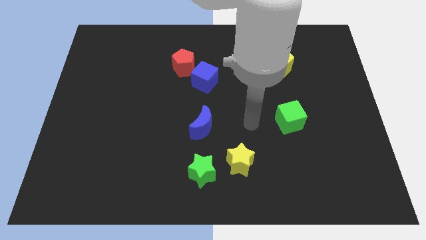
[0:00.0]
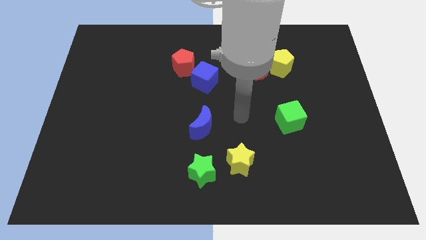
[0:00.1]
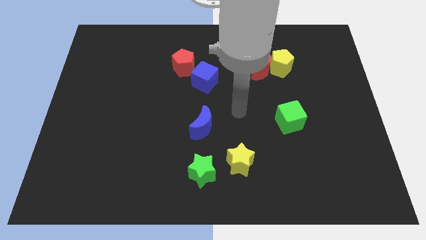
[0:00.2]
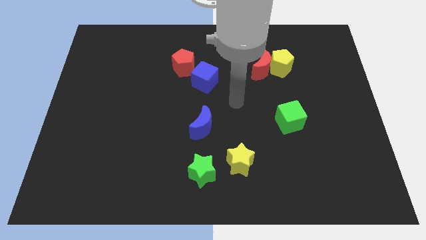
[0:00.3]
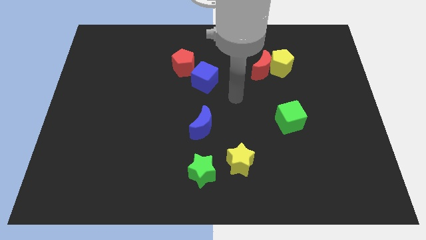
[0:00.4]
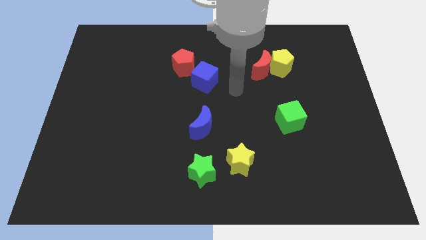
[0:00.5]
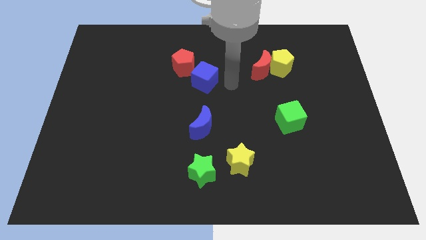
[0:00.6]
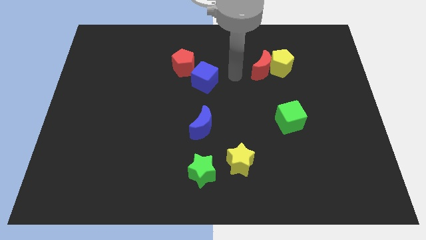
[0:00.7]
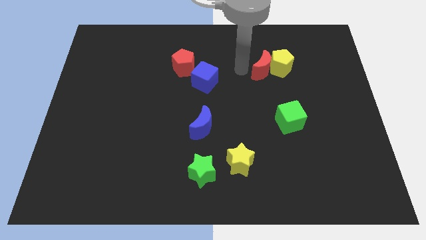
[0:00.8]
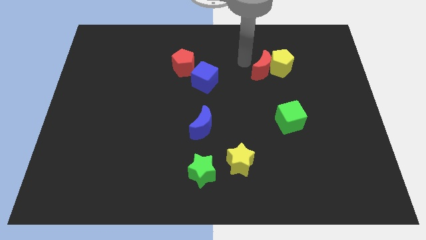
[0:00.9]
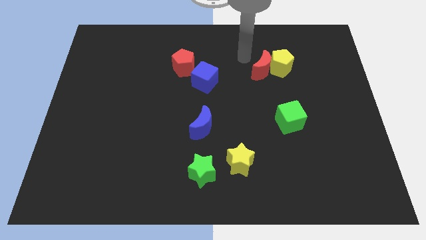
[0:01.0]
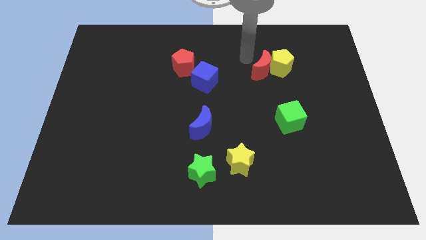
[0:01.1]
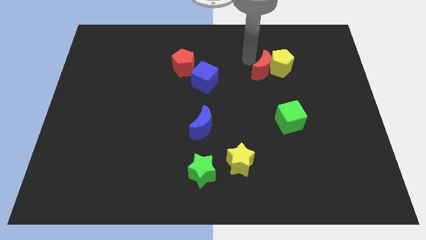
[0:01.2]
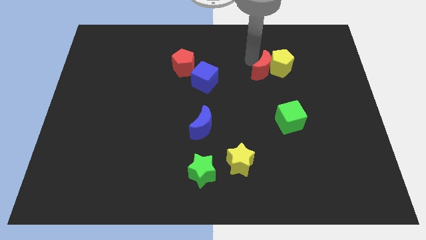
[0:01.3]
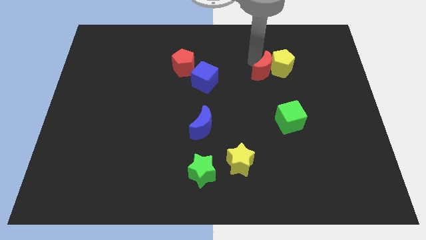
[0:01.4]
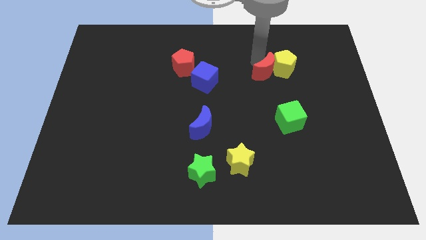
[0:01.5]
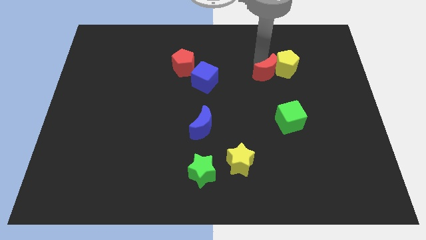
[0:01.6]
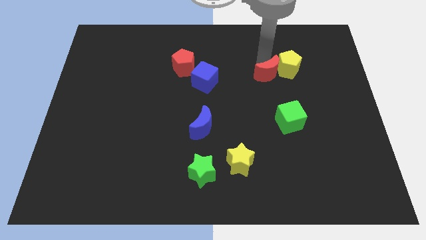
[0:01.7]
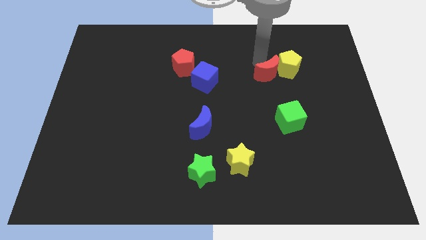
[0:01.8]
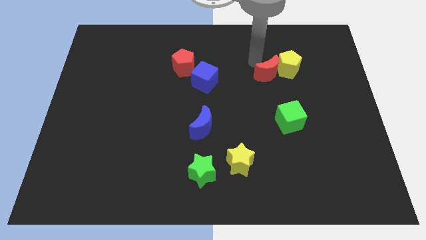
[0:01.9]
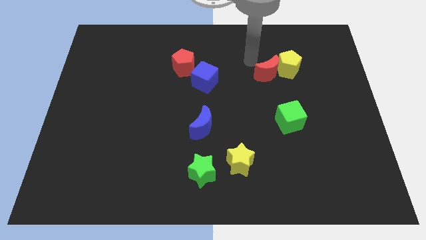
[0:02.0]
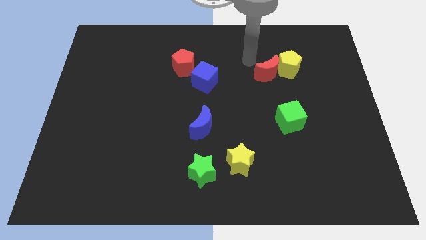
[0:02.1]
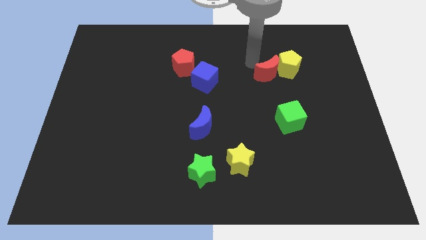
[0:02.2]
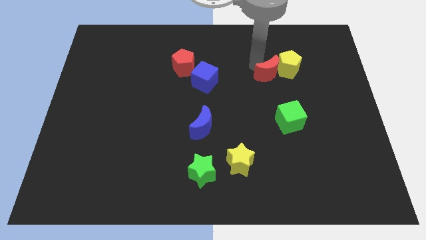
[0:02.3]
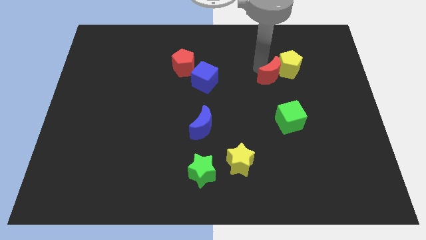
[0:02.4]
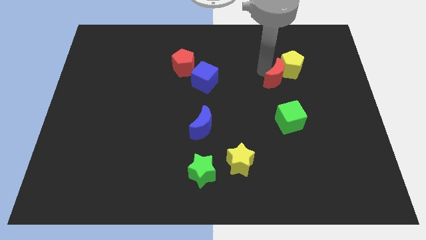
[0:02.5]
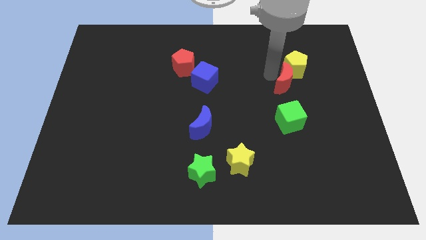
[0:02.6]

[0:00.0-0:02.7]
push the red moon down and right diagonally a little

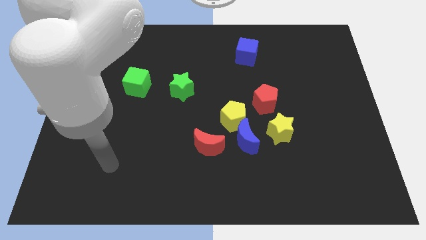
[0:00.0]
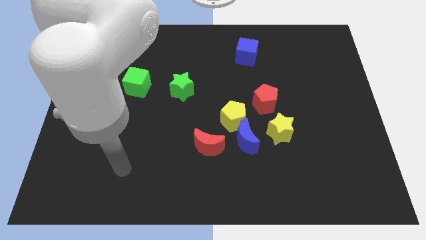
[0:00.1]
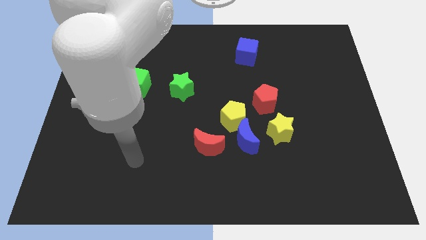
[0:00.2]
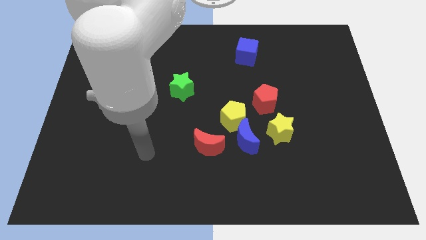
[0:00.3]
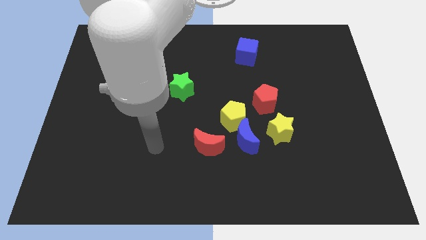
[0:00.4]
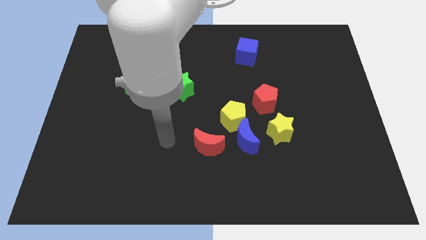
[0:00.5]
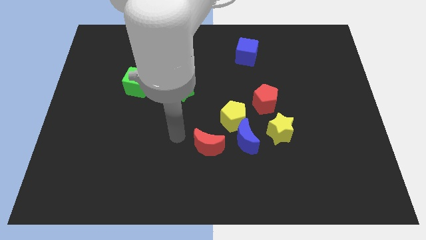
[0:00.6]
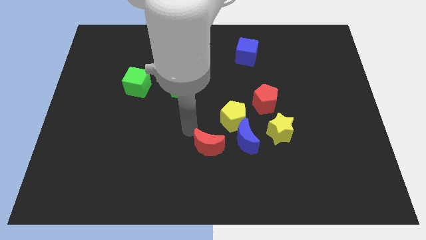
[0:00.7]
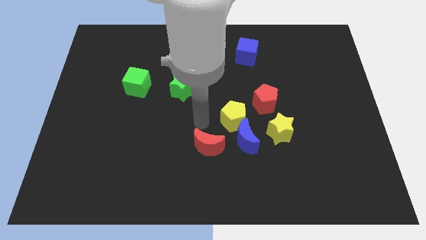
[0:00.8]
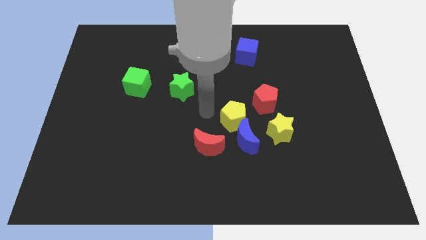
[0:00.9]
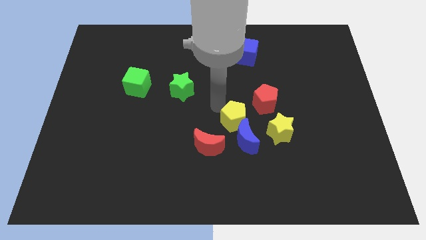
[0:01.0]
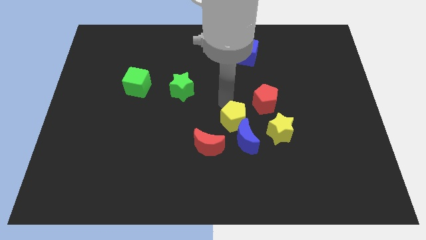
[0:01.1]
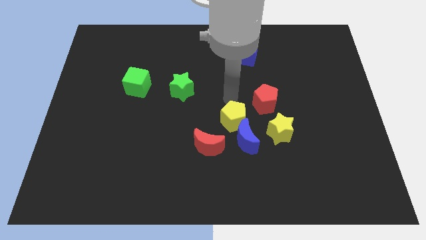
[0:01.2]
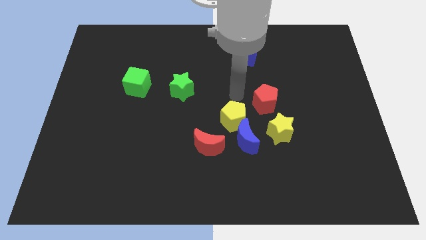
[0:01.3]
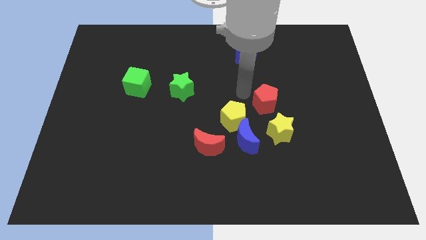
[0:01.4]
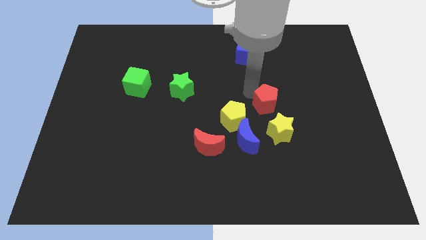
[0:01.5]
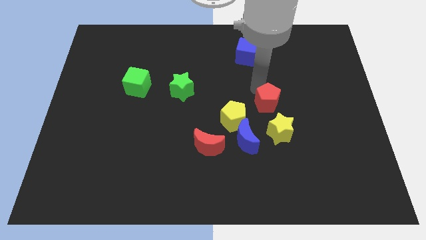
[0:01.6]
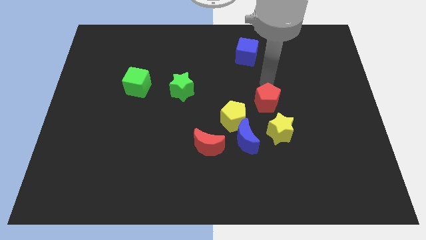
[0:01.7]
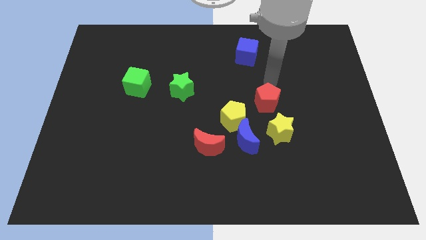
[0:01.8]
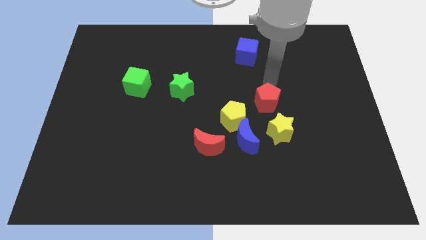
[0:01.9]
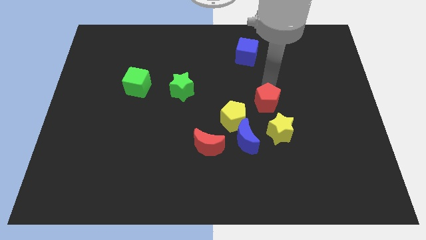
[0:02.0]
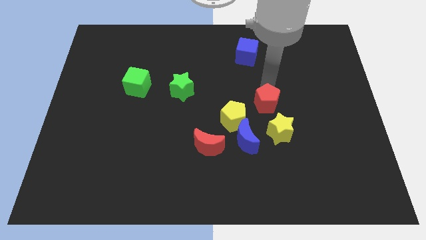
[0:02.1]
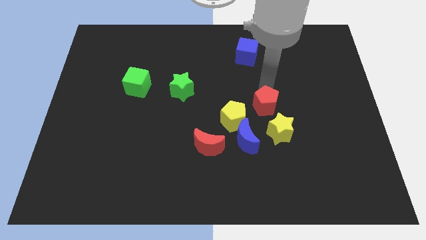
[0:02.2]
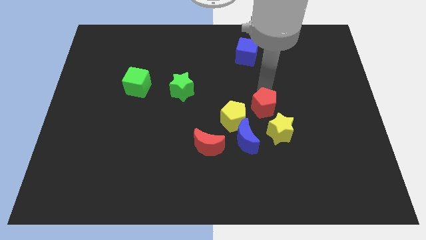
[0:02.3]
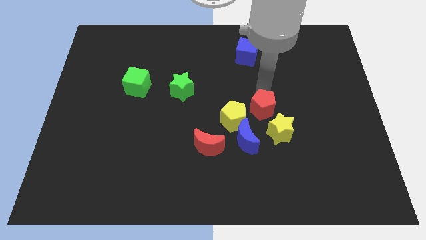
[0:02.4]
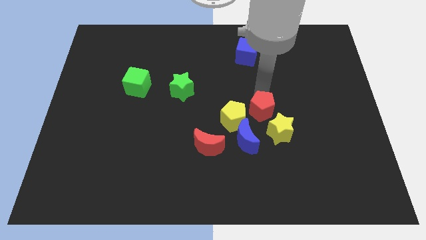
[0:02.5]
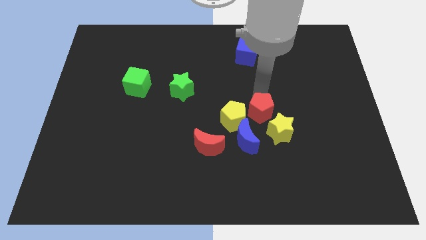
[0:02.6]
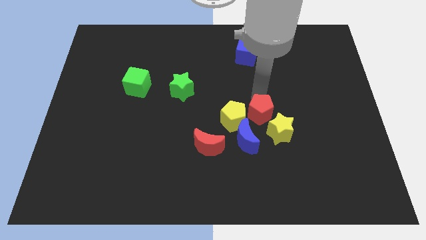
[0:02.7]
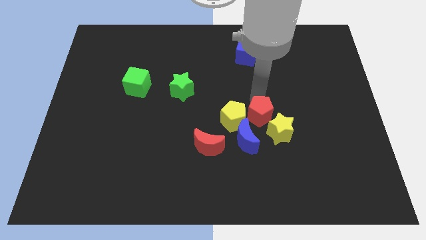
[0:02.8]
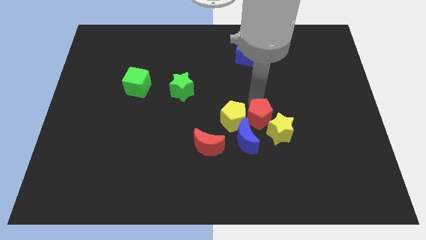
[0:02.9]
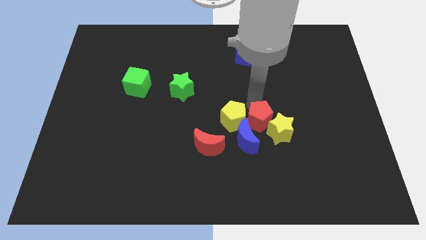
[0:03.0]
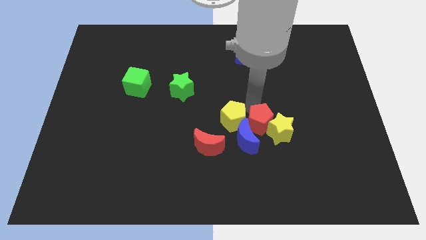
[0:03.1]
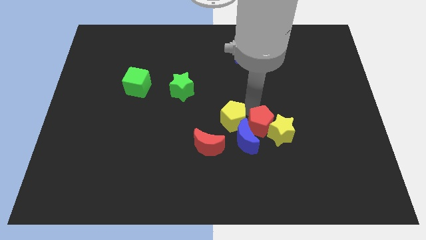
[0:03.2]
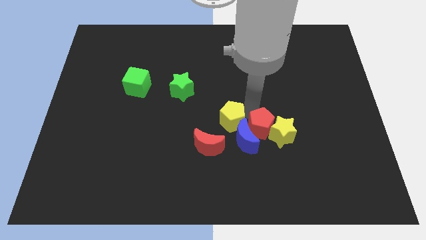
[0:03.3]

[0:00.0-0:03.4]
slide the red pentagon somewhat down

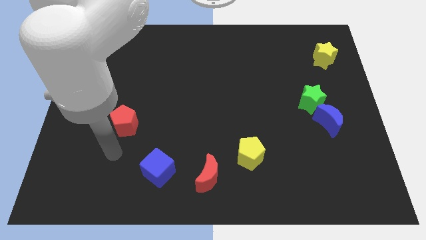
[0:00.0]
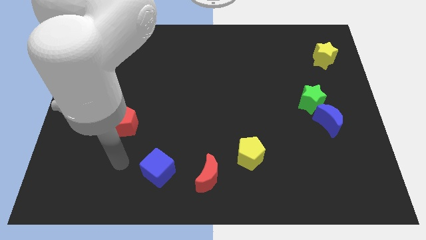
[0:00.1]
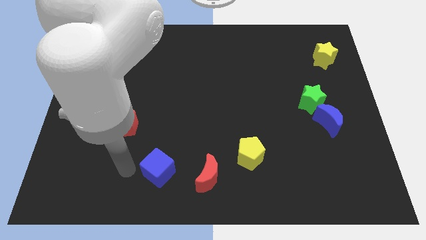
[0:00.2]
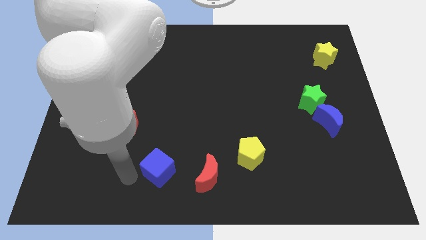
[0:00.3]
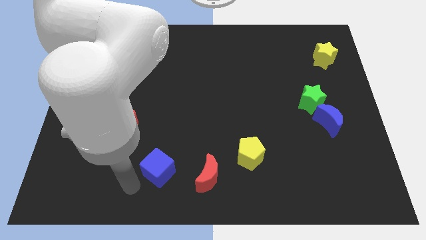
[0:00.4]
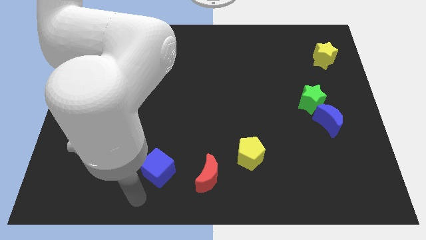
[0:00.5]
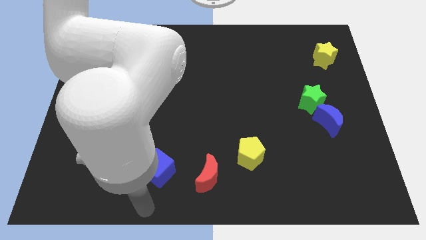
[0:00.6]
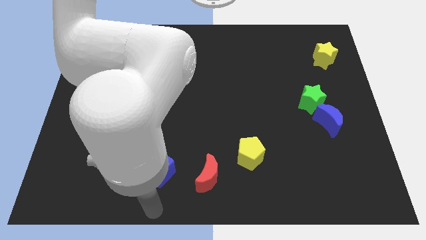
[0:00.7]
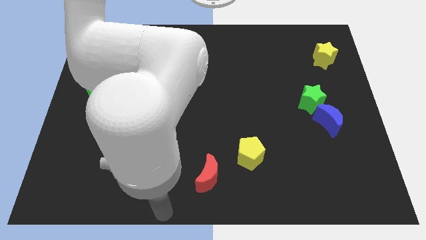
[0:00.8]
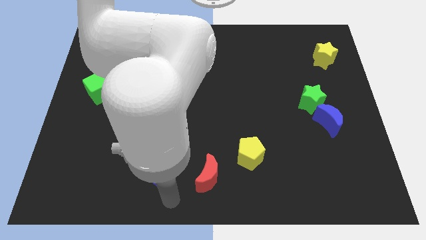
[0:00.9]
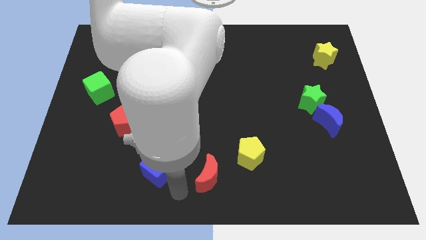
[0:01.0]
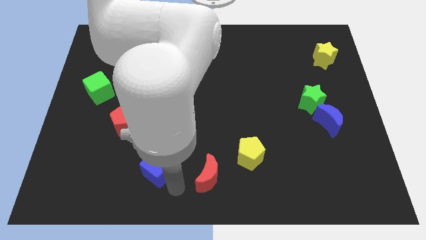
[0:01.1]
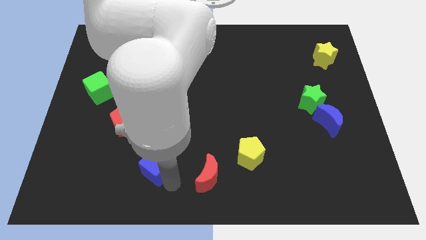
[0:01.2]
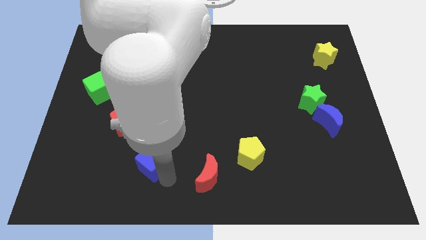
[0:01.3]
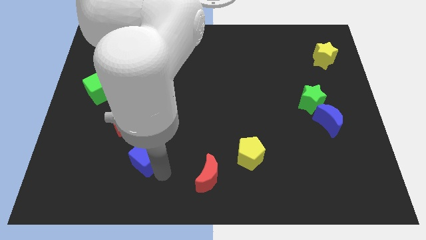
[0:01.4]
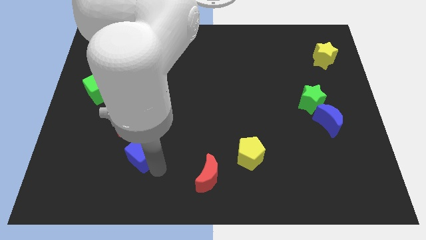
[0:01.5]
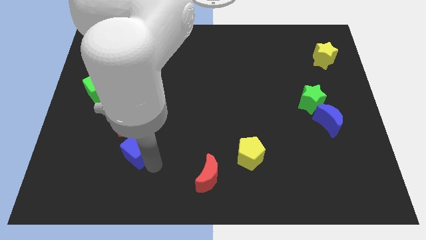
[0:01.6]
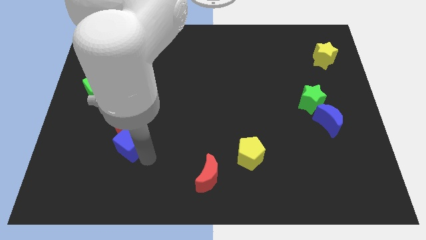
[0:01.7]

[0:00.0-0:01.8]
move the blue cube diagonally upwards and to the left a little bit

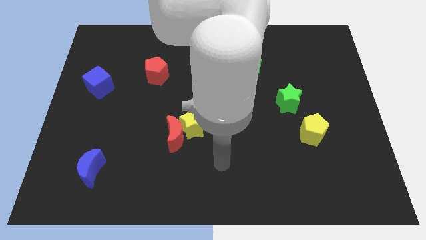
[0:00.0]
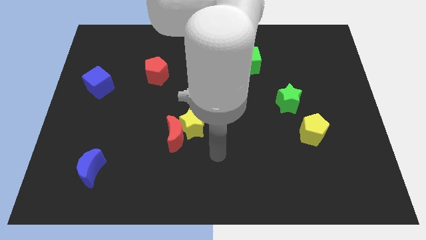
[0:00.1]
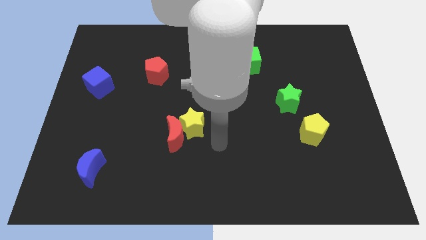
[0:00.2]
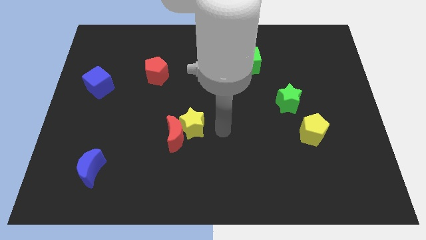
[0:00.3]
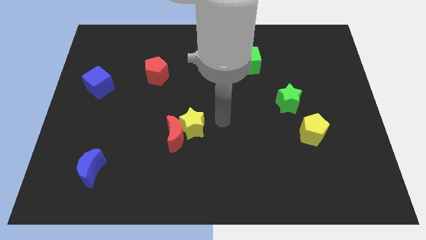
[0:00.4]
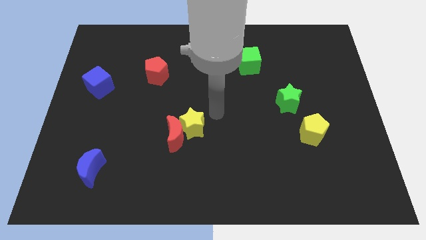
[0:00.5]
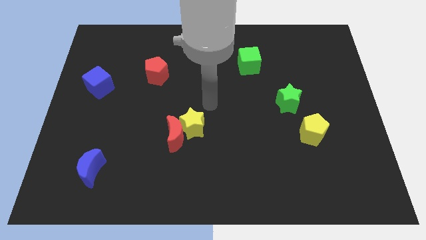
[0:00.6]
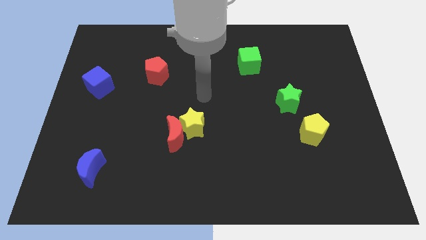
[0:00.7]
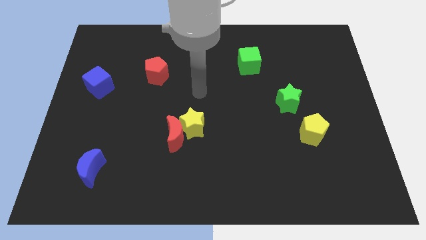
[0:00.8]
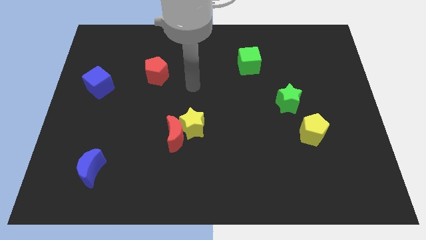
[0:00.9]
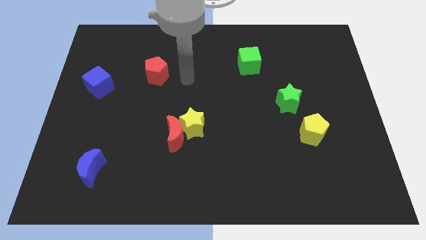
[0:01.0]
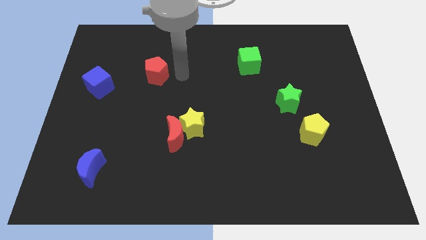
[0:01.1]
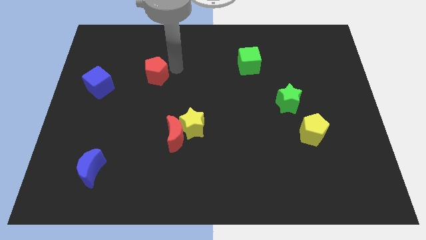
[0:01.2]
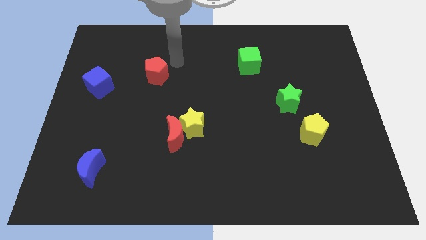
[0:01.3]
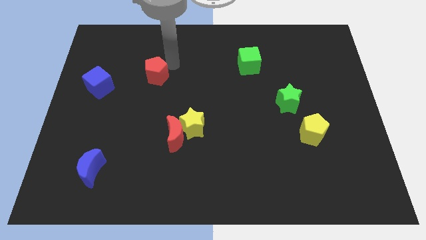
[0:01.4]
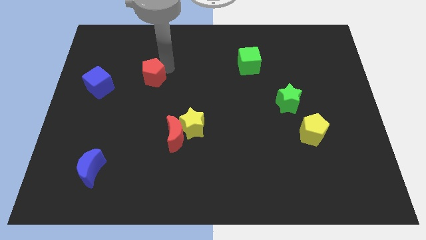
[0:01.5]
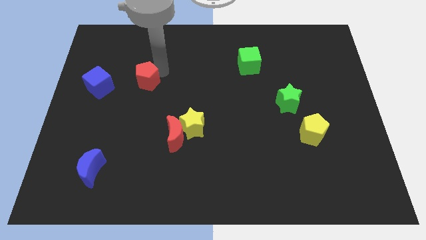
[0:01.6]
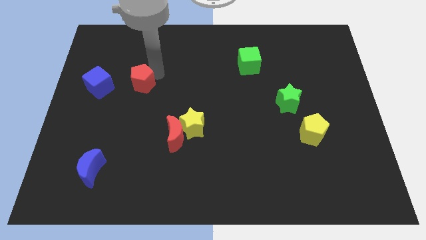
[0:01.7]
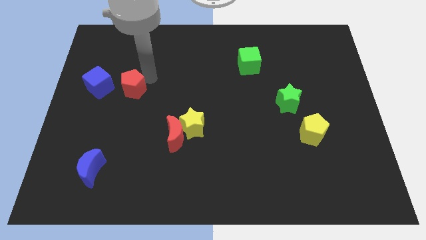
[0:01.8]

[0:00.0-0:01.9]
slide the red pentagon a little down and then left
